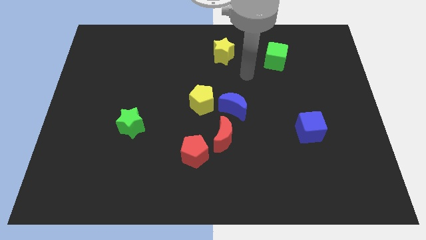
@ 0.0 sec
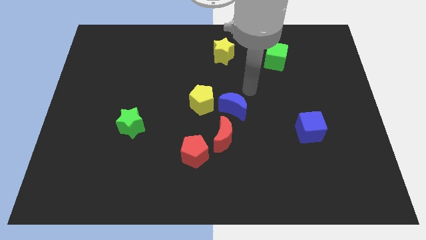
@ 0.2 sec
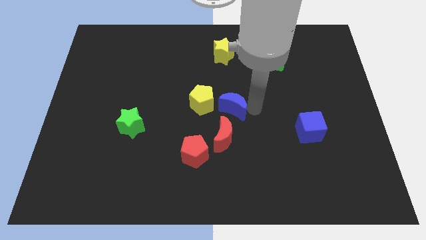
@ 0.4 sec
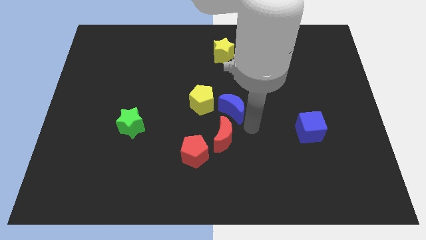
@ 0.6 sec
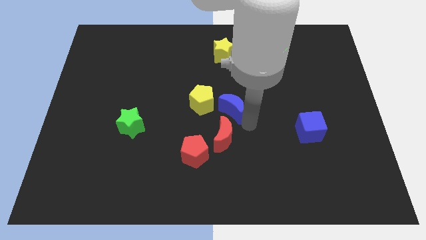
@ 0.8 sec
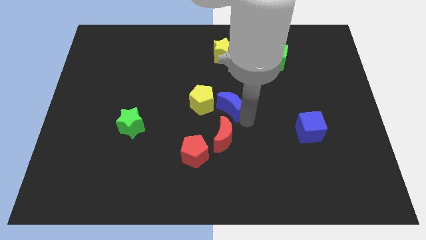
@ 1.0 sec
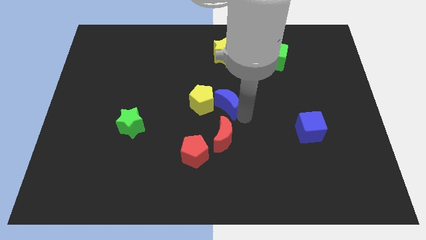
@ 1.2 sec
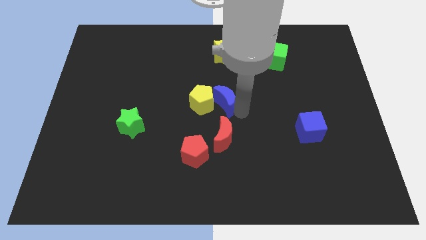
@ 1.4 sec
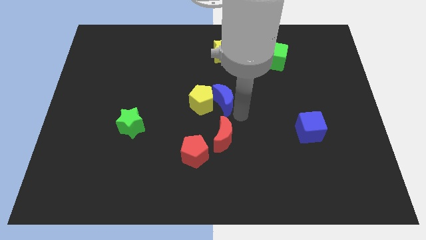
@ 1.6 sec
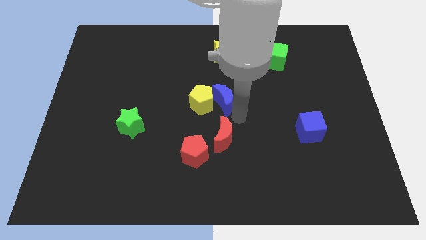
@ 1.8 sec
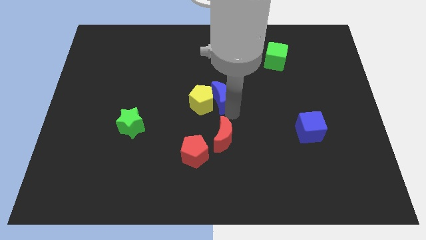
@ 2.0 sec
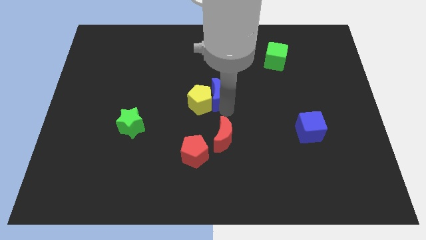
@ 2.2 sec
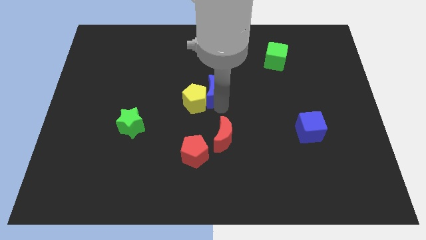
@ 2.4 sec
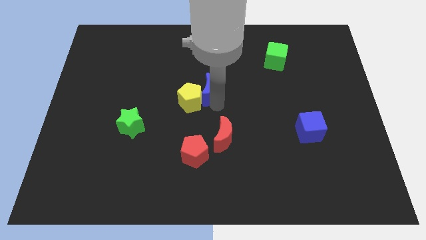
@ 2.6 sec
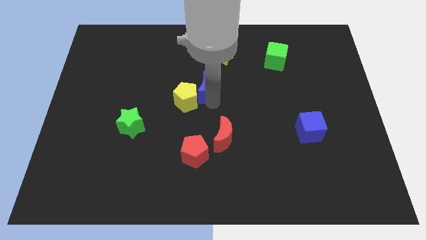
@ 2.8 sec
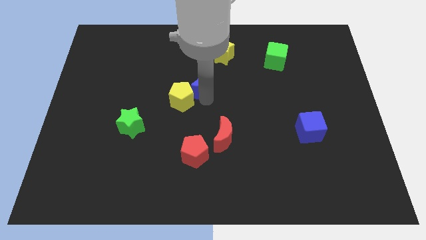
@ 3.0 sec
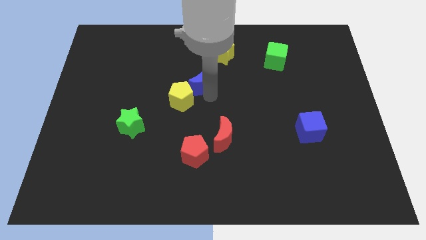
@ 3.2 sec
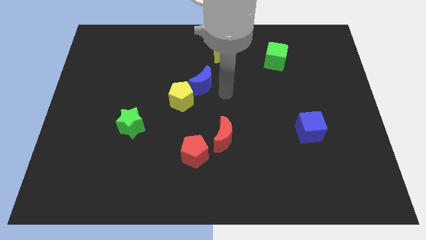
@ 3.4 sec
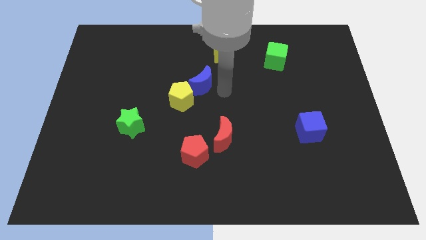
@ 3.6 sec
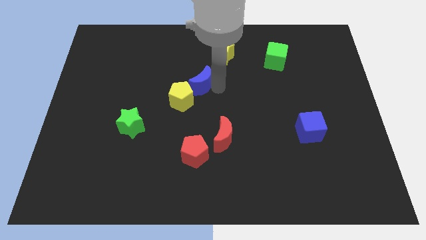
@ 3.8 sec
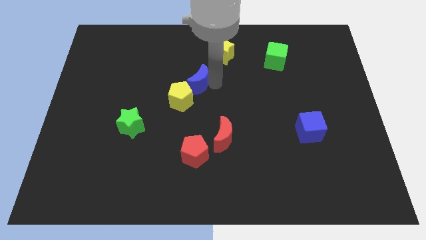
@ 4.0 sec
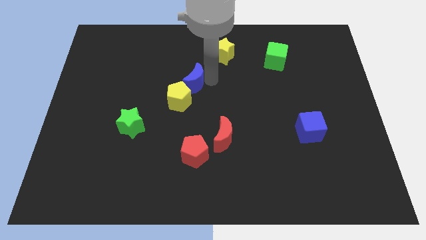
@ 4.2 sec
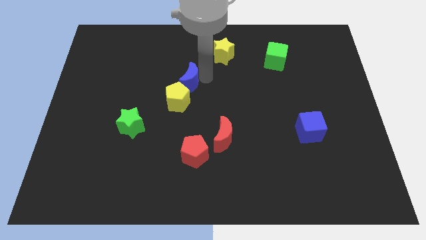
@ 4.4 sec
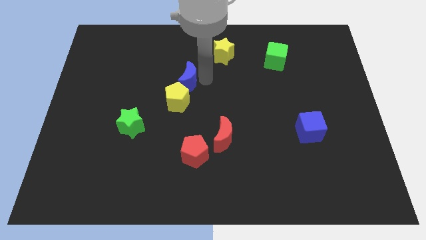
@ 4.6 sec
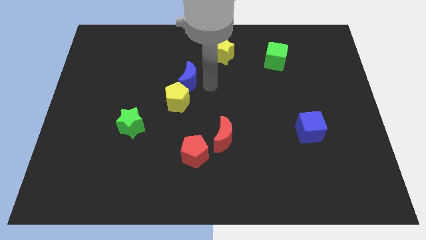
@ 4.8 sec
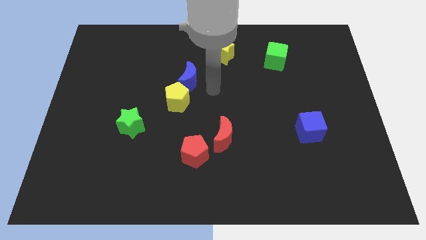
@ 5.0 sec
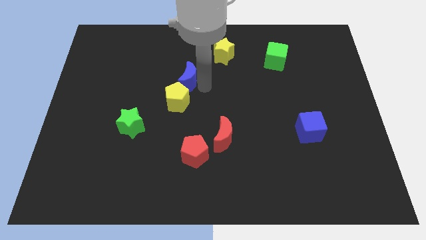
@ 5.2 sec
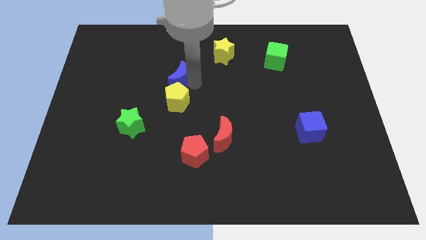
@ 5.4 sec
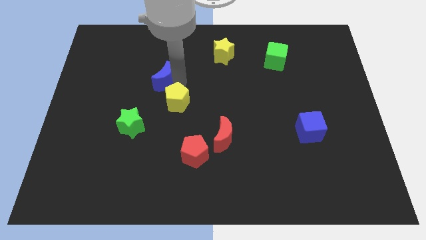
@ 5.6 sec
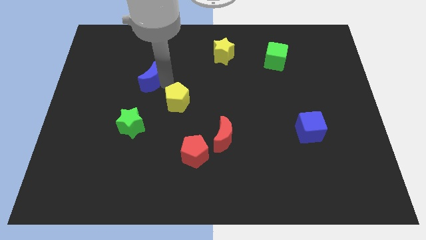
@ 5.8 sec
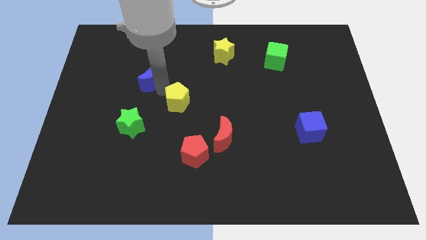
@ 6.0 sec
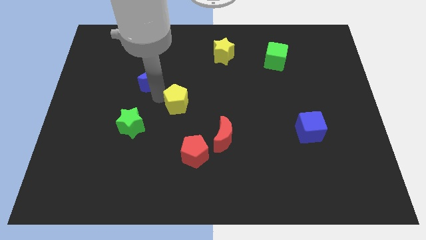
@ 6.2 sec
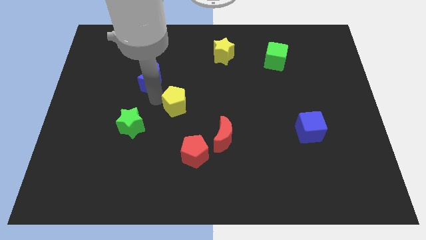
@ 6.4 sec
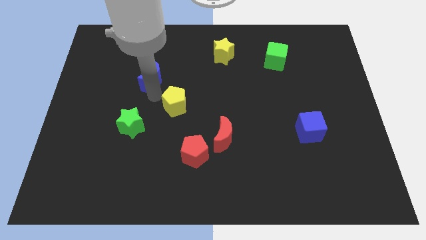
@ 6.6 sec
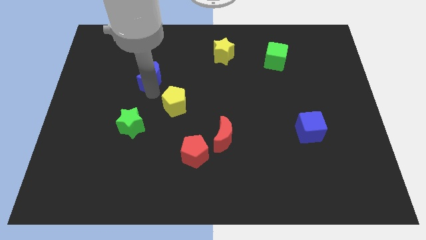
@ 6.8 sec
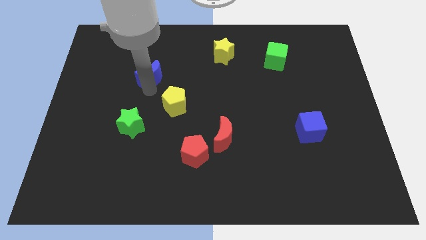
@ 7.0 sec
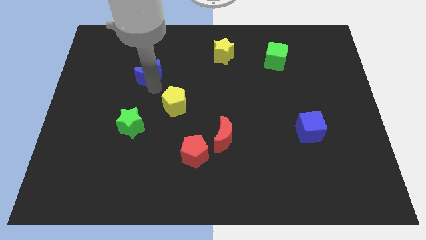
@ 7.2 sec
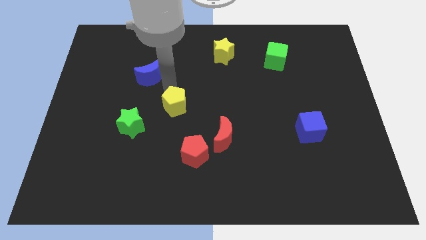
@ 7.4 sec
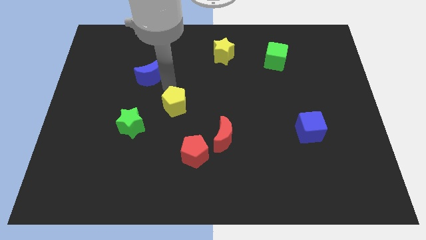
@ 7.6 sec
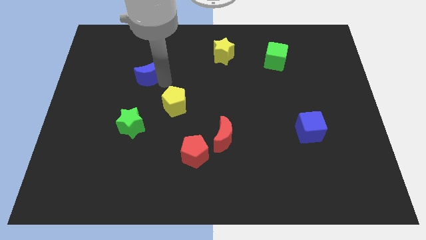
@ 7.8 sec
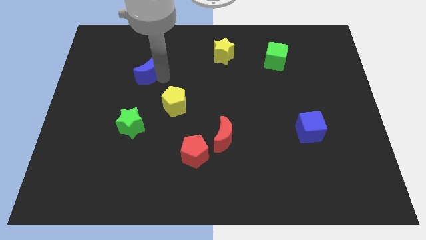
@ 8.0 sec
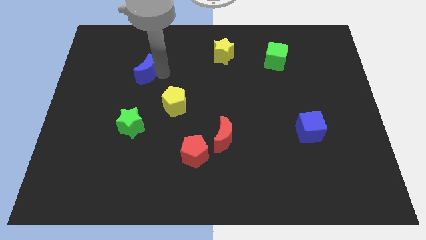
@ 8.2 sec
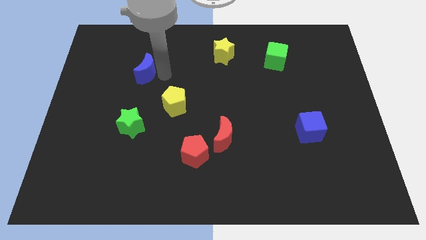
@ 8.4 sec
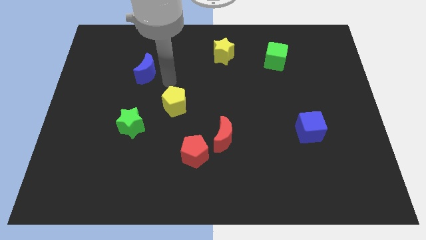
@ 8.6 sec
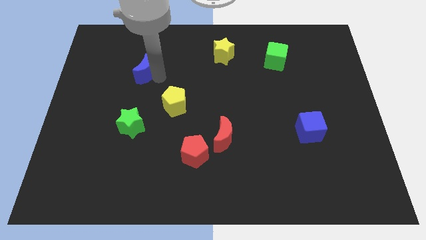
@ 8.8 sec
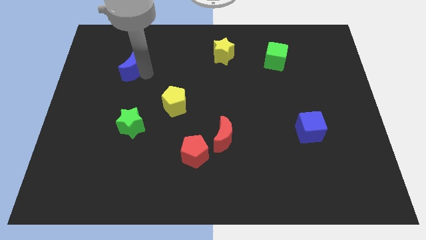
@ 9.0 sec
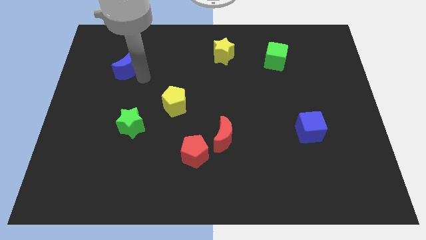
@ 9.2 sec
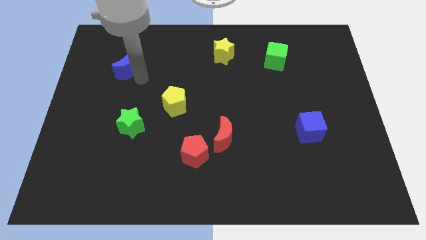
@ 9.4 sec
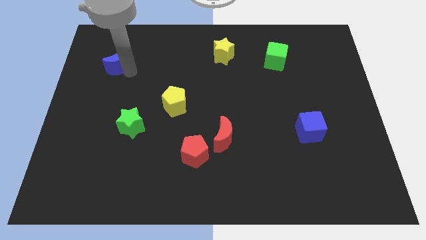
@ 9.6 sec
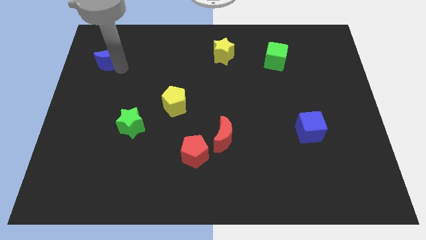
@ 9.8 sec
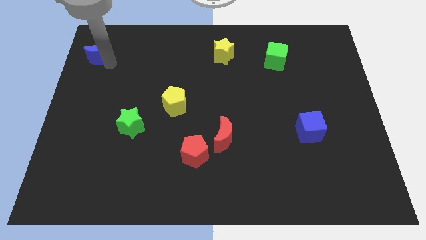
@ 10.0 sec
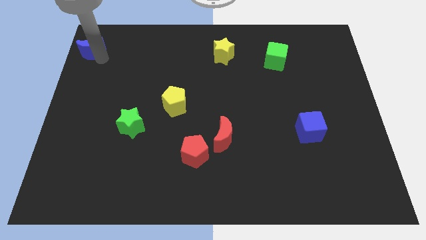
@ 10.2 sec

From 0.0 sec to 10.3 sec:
put the blue moon to the top left
